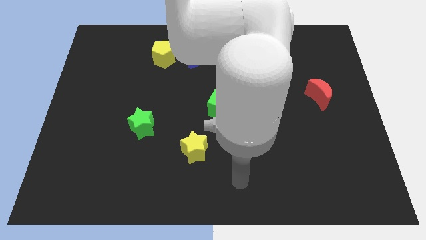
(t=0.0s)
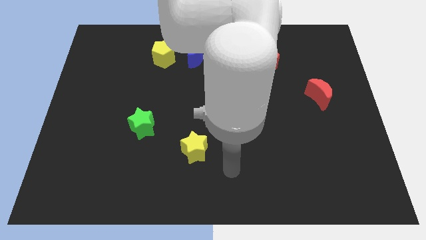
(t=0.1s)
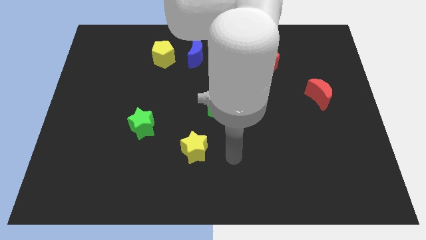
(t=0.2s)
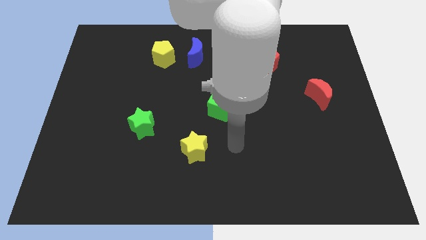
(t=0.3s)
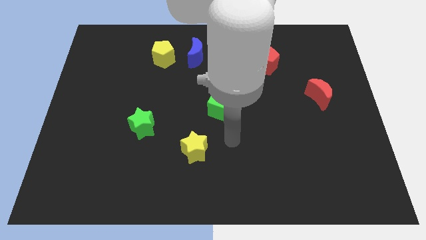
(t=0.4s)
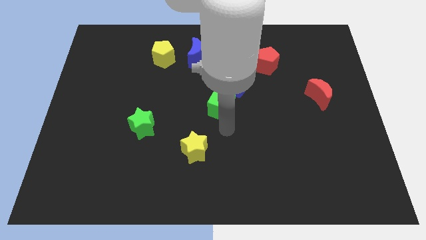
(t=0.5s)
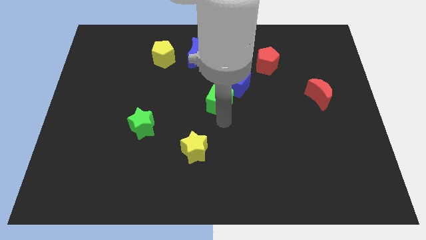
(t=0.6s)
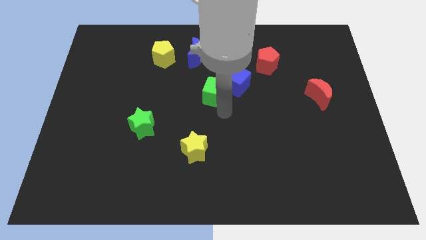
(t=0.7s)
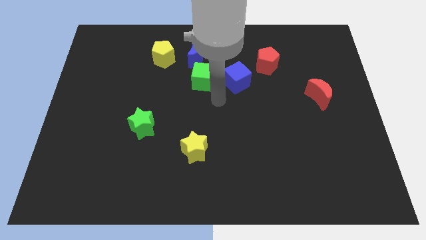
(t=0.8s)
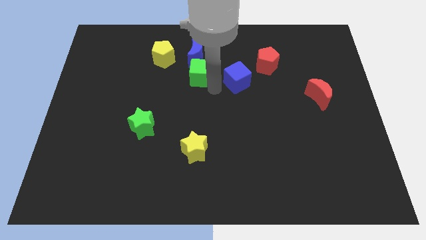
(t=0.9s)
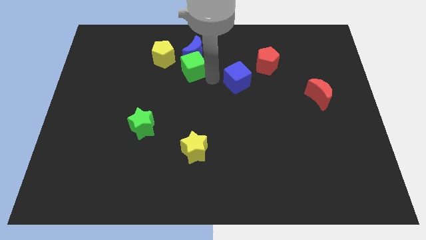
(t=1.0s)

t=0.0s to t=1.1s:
pull the blue cube apart from the green cube

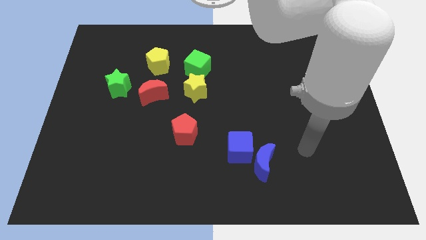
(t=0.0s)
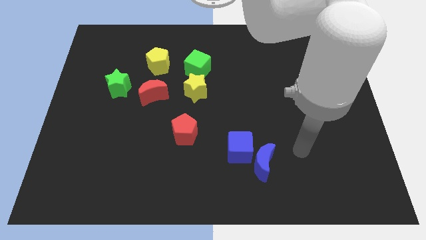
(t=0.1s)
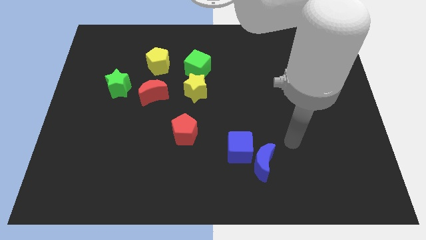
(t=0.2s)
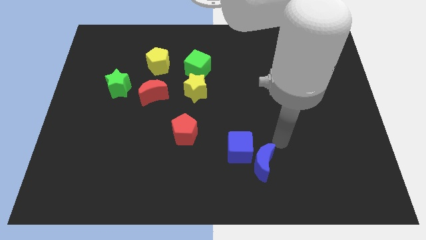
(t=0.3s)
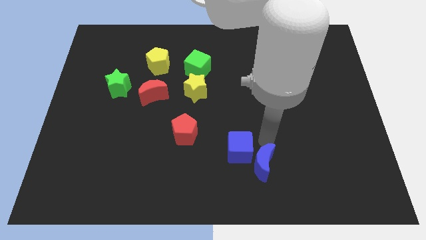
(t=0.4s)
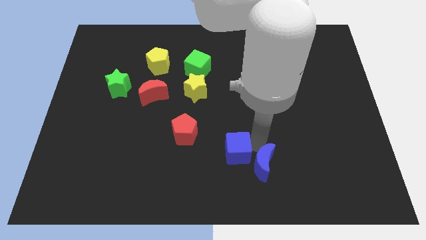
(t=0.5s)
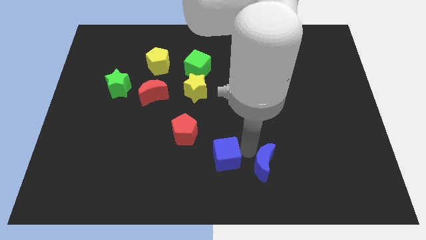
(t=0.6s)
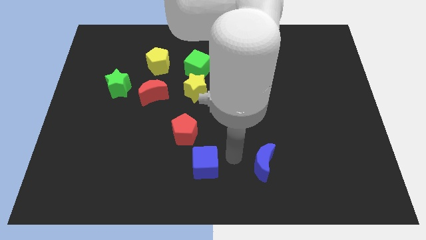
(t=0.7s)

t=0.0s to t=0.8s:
pull the blue moon apart from the blue cube

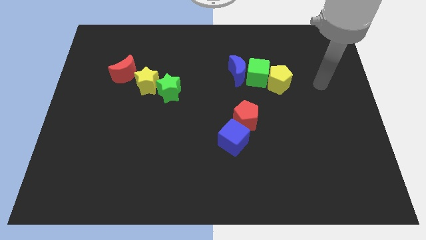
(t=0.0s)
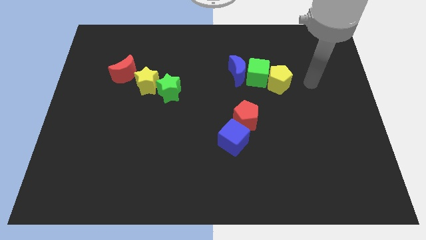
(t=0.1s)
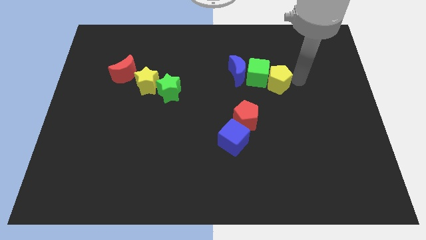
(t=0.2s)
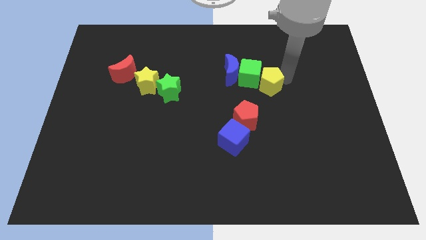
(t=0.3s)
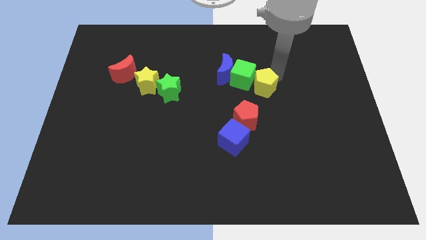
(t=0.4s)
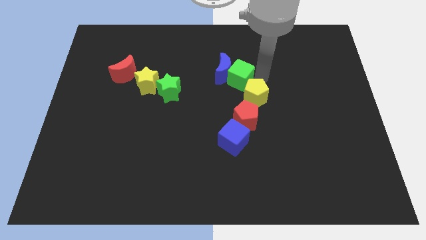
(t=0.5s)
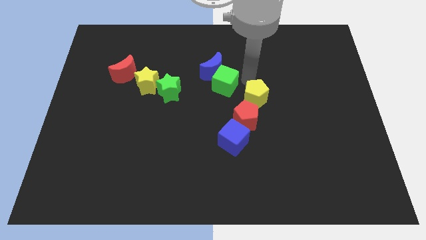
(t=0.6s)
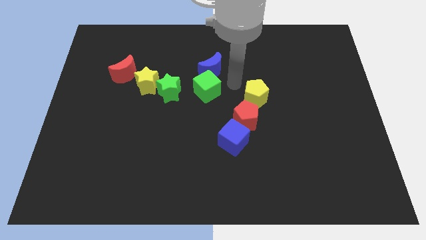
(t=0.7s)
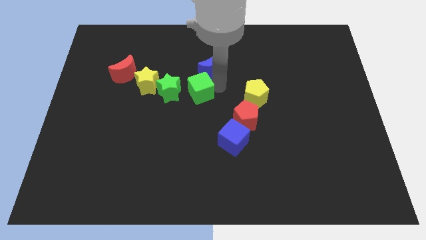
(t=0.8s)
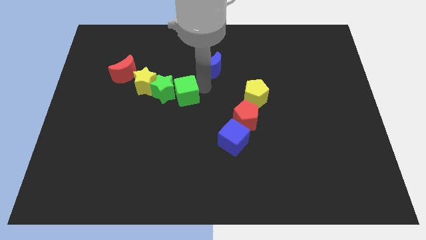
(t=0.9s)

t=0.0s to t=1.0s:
move the blue moon away from the green cube

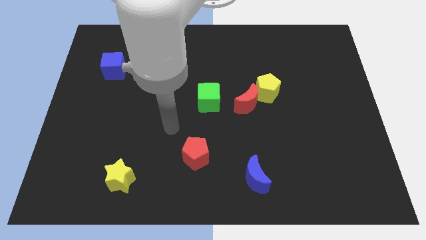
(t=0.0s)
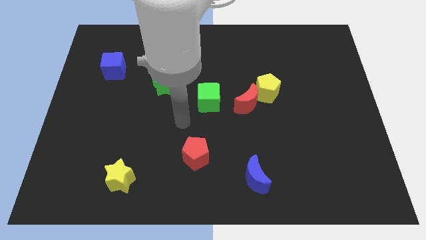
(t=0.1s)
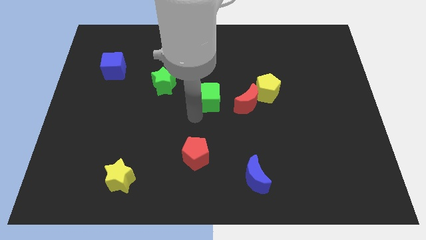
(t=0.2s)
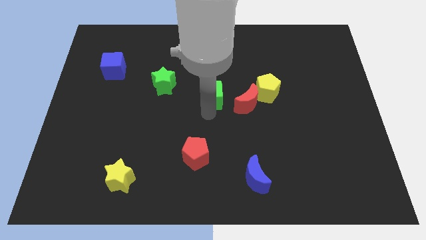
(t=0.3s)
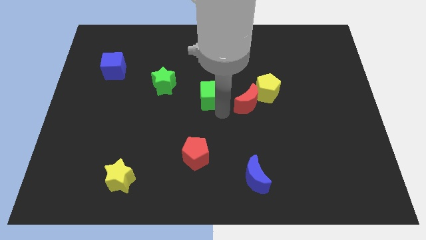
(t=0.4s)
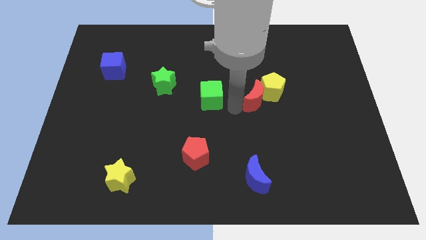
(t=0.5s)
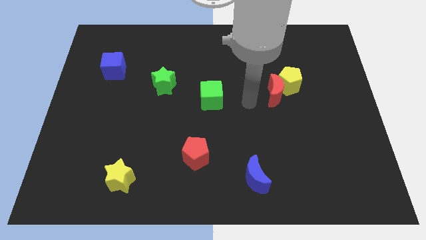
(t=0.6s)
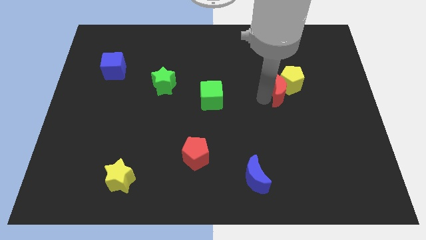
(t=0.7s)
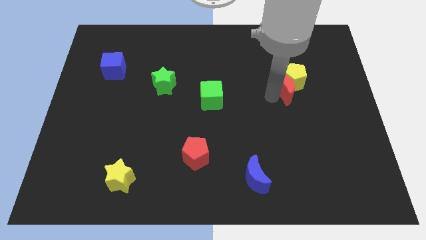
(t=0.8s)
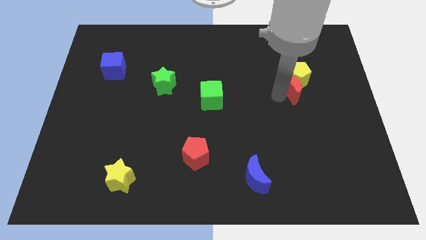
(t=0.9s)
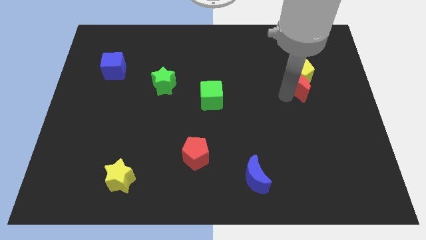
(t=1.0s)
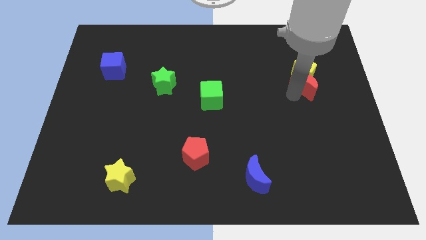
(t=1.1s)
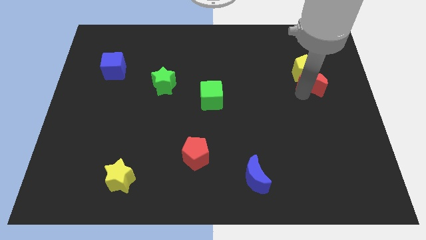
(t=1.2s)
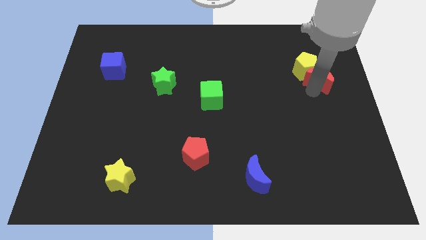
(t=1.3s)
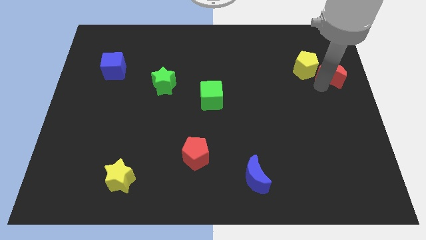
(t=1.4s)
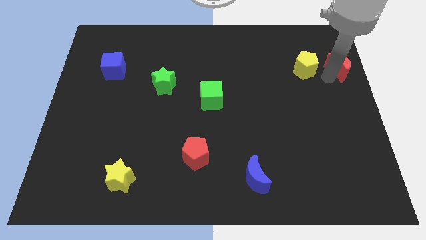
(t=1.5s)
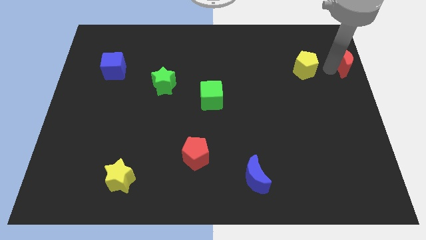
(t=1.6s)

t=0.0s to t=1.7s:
separate the yellow pentagon from the red moon

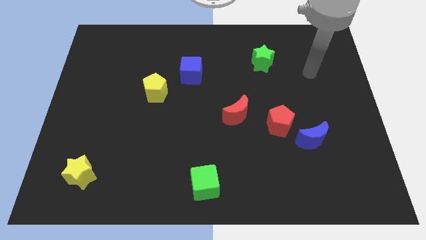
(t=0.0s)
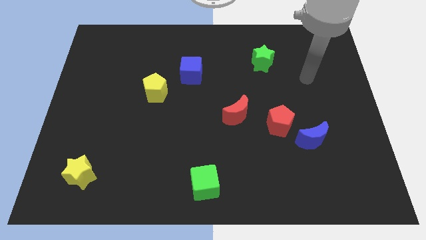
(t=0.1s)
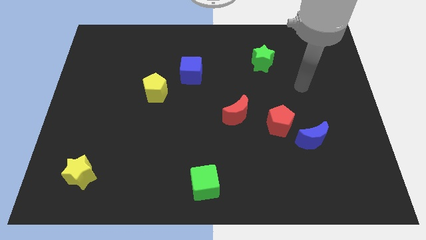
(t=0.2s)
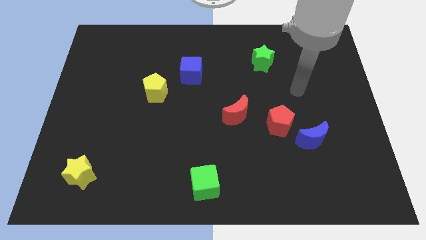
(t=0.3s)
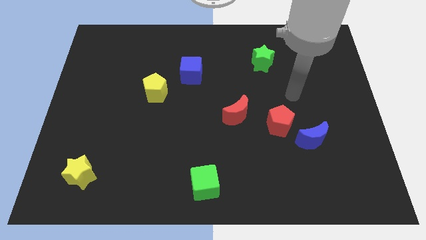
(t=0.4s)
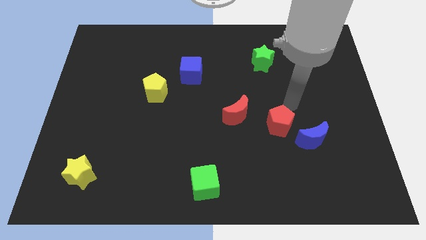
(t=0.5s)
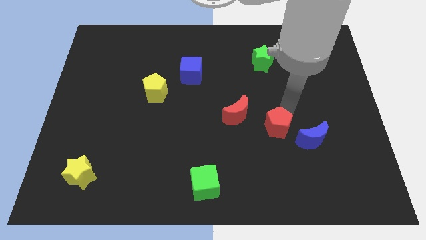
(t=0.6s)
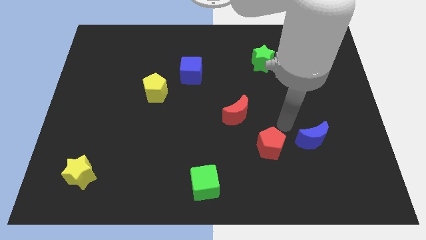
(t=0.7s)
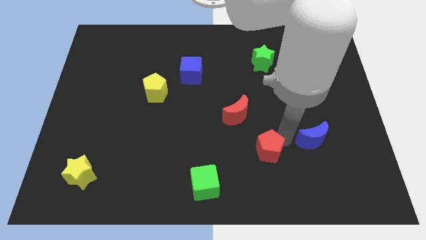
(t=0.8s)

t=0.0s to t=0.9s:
move the blue moon away from the red pentagon

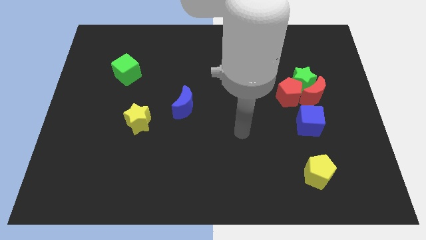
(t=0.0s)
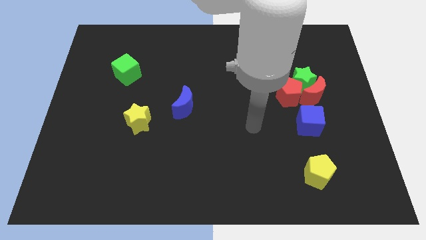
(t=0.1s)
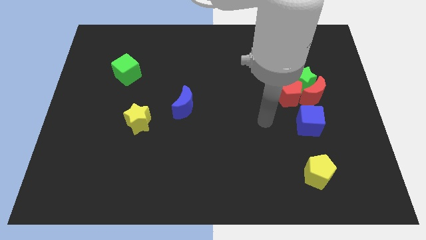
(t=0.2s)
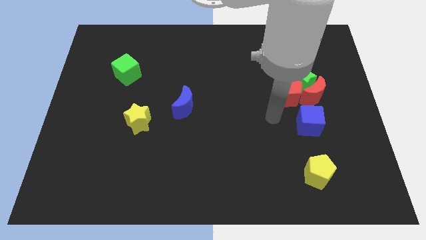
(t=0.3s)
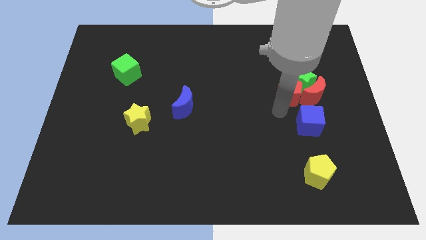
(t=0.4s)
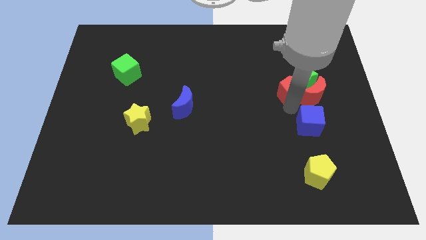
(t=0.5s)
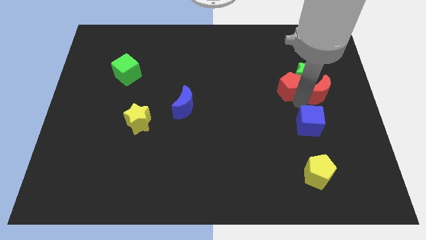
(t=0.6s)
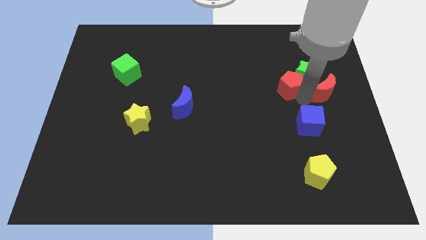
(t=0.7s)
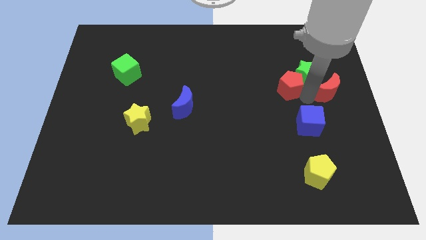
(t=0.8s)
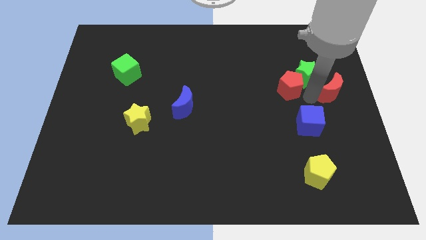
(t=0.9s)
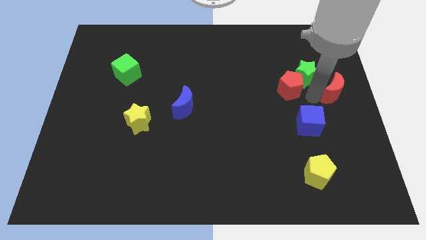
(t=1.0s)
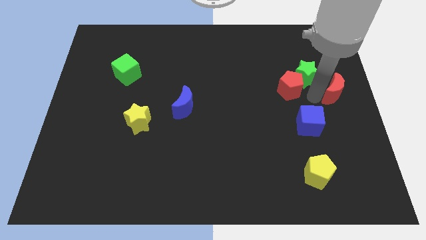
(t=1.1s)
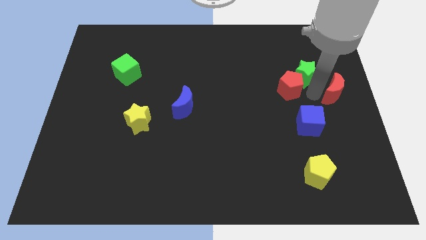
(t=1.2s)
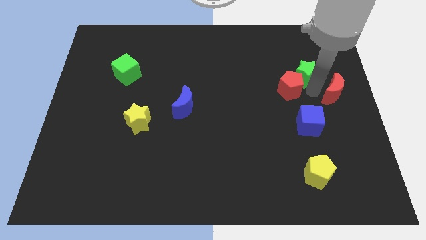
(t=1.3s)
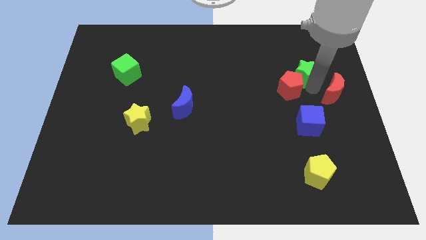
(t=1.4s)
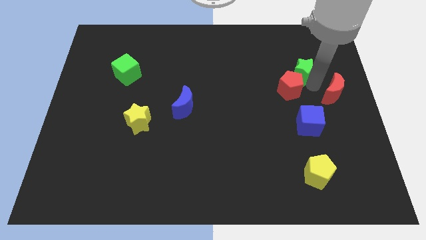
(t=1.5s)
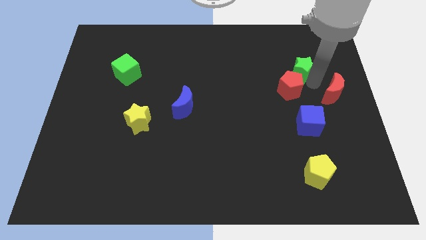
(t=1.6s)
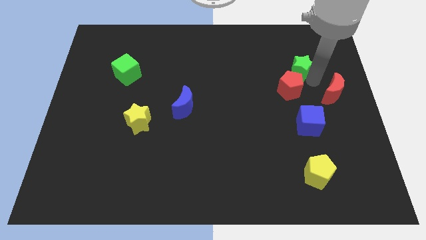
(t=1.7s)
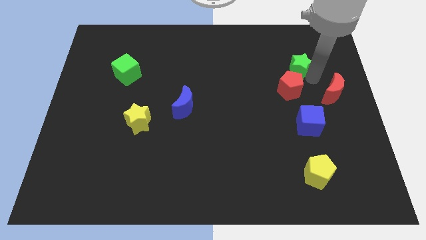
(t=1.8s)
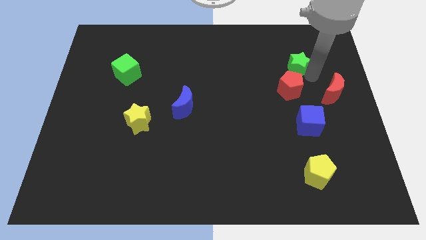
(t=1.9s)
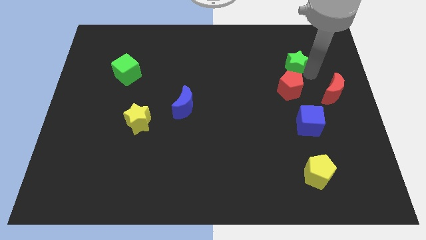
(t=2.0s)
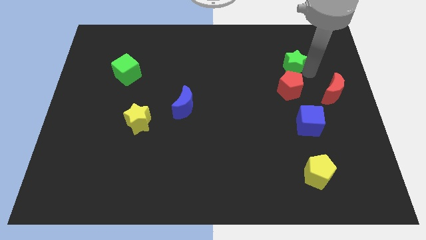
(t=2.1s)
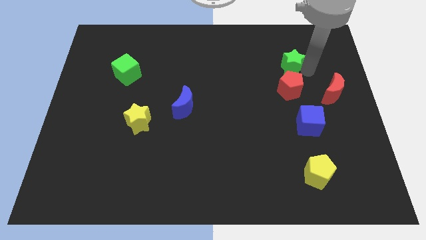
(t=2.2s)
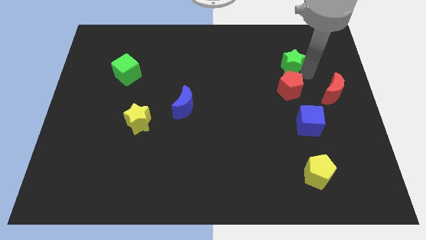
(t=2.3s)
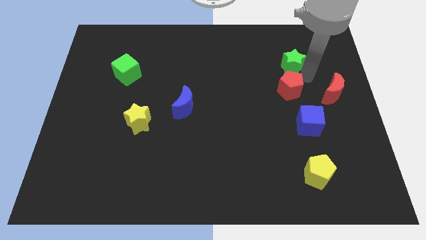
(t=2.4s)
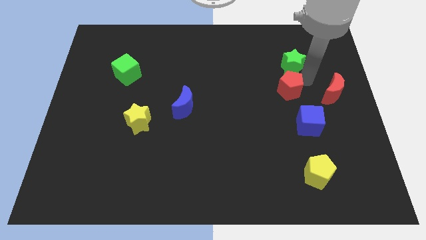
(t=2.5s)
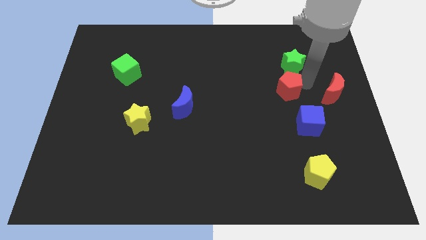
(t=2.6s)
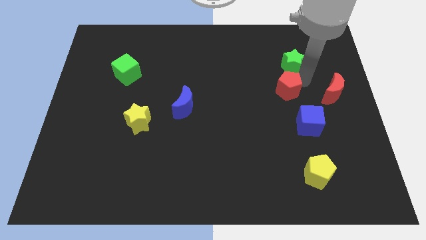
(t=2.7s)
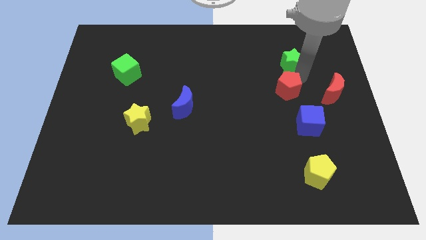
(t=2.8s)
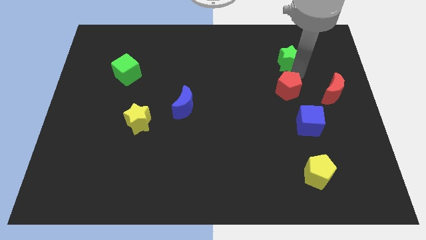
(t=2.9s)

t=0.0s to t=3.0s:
separate the green star from the red moon and red pentagon

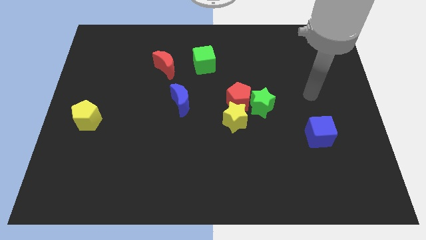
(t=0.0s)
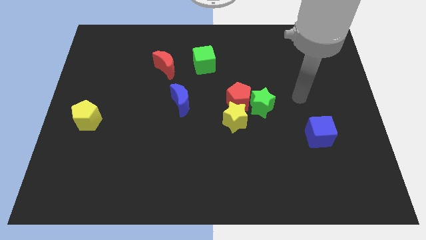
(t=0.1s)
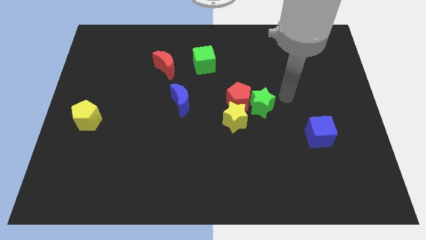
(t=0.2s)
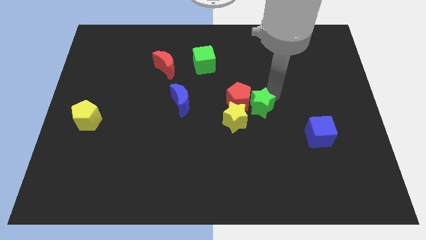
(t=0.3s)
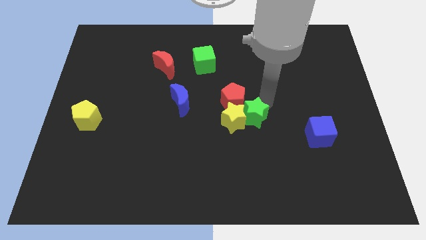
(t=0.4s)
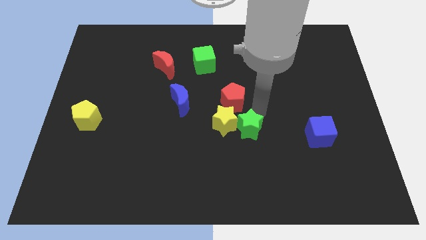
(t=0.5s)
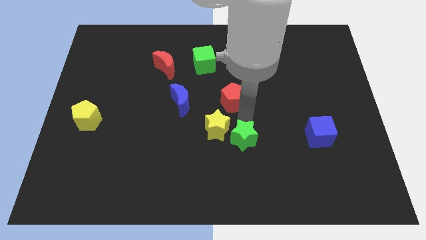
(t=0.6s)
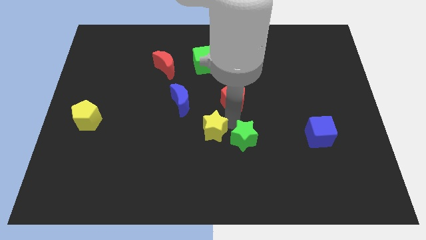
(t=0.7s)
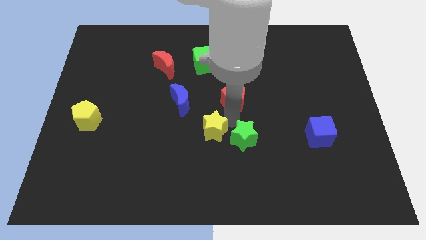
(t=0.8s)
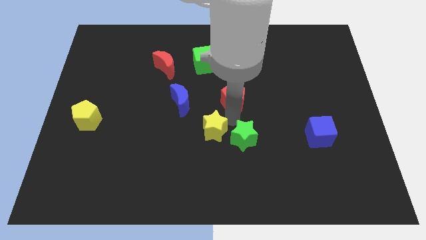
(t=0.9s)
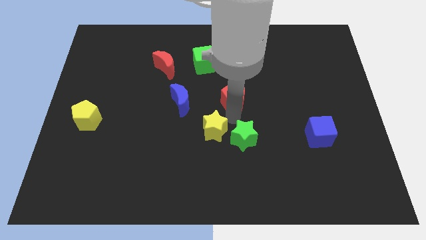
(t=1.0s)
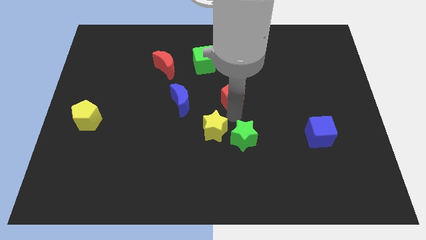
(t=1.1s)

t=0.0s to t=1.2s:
pull the red pentagon apart from the green star and yellow star
